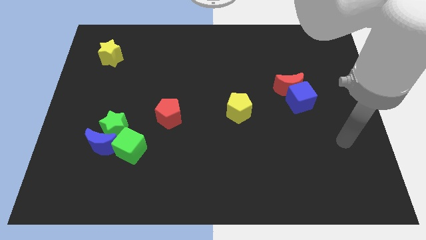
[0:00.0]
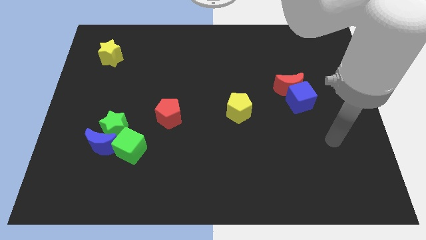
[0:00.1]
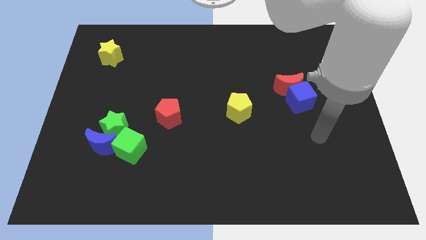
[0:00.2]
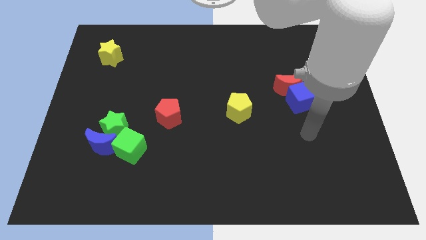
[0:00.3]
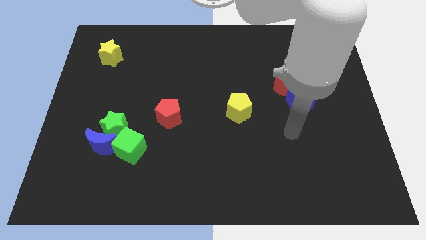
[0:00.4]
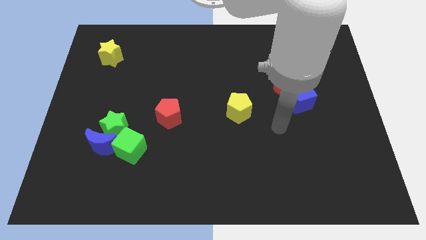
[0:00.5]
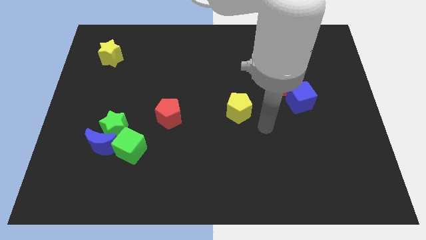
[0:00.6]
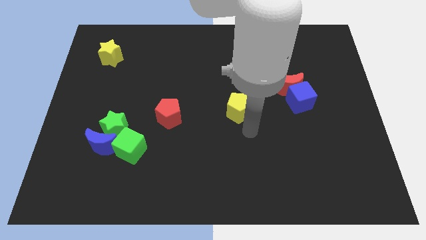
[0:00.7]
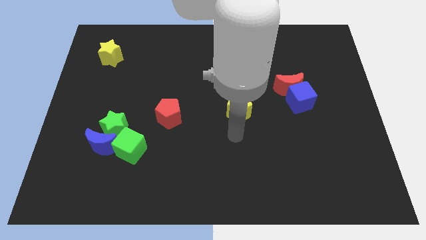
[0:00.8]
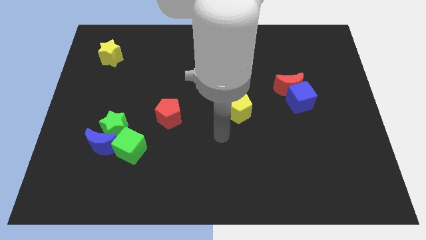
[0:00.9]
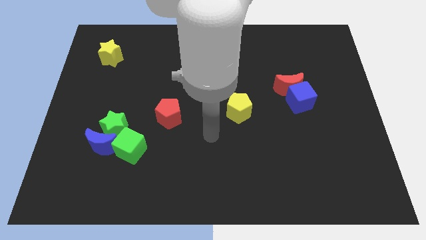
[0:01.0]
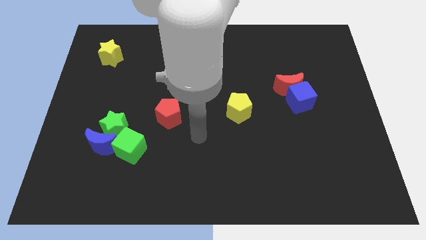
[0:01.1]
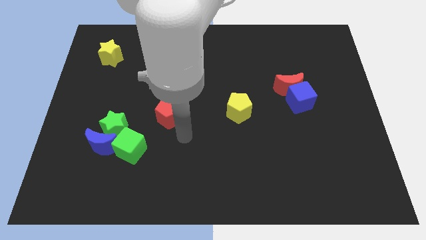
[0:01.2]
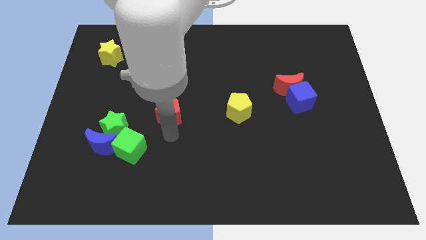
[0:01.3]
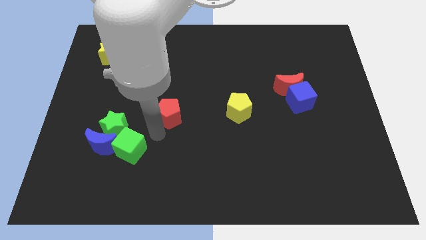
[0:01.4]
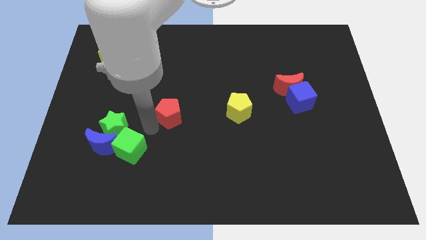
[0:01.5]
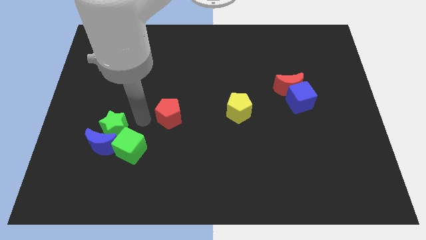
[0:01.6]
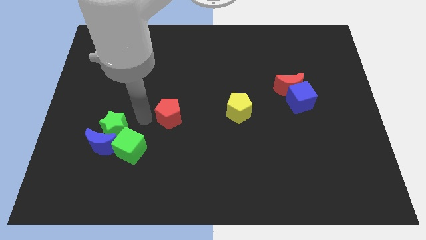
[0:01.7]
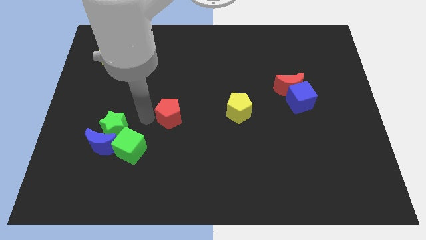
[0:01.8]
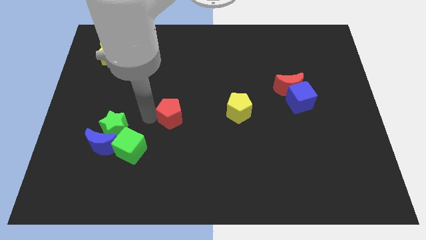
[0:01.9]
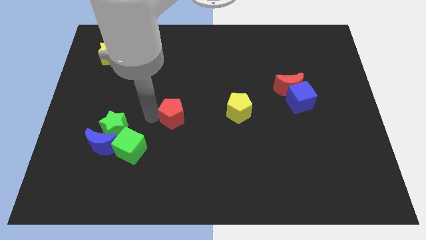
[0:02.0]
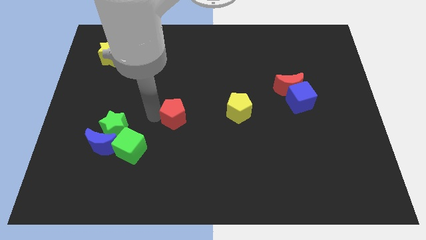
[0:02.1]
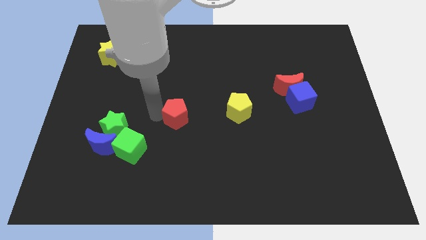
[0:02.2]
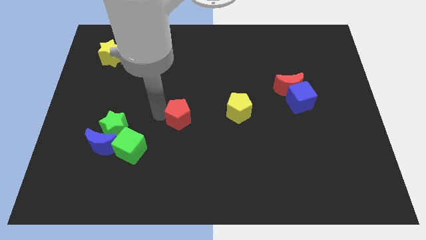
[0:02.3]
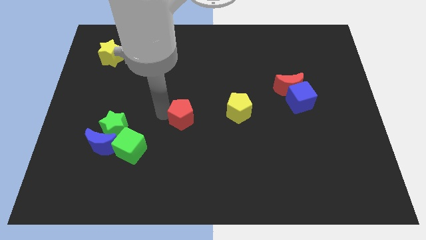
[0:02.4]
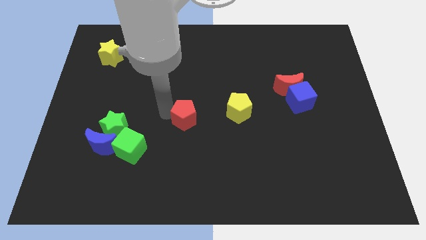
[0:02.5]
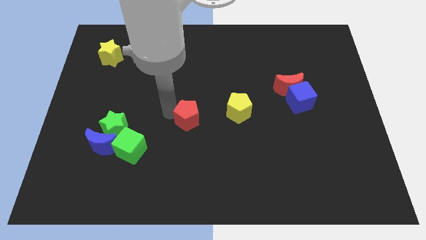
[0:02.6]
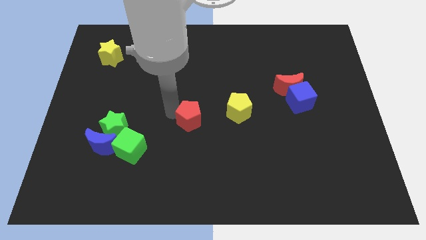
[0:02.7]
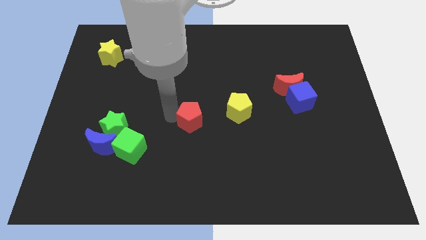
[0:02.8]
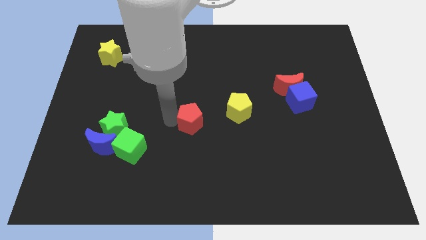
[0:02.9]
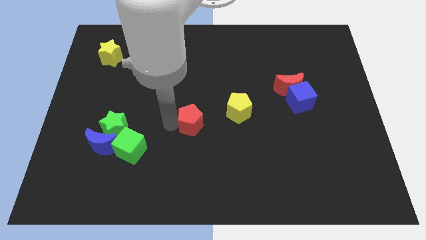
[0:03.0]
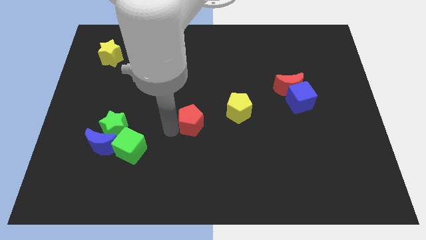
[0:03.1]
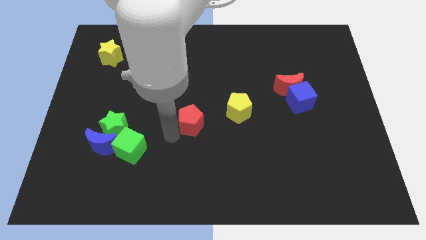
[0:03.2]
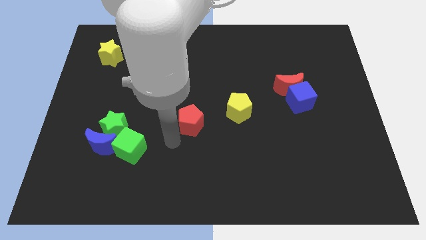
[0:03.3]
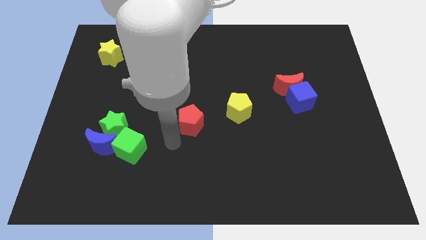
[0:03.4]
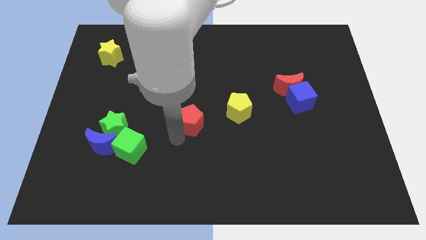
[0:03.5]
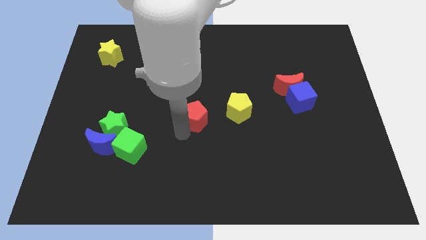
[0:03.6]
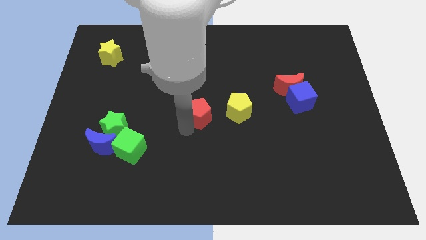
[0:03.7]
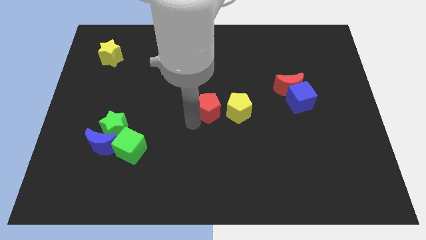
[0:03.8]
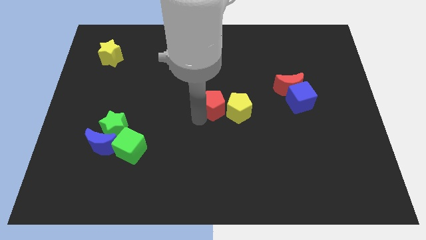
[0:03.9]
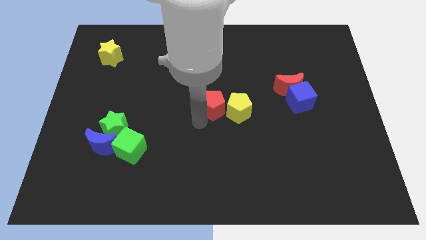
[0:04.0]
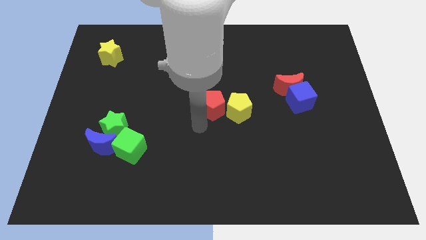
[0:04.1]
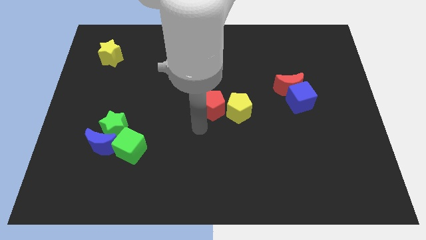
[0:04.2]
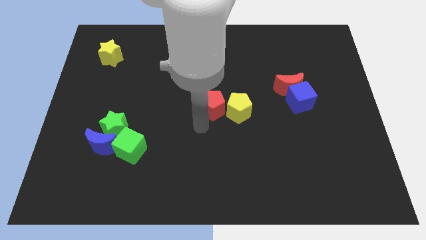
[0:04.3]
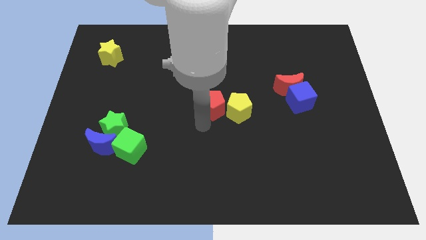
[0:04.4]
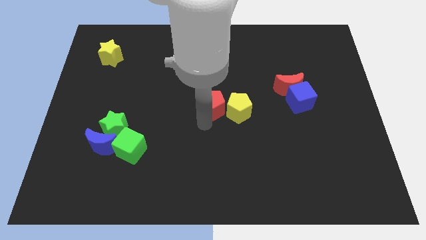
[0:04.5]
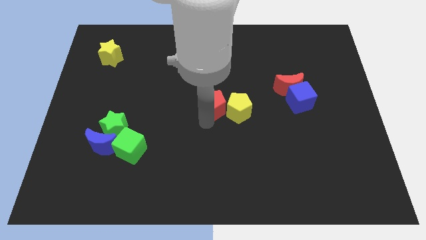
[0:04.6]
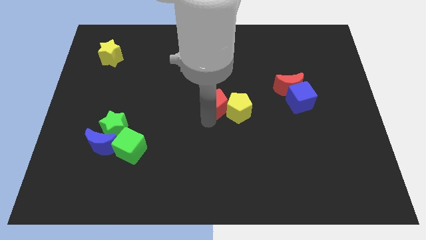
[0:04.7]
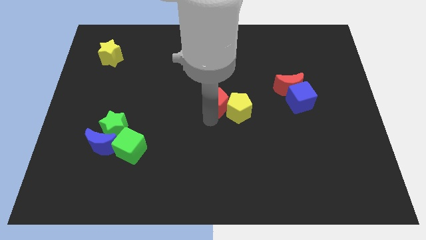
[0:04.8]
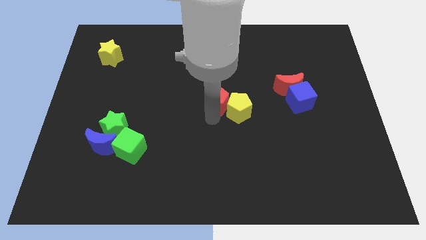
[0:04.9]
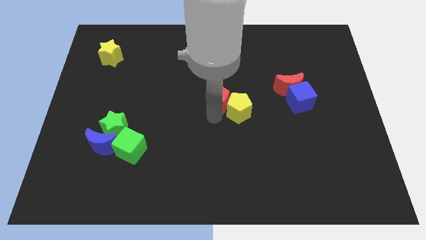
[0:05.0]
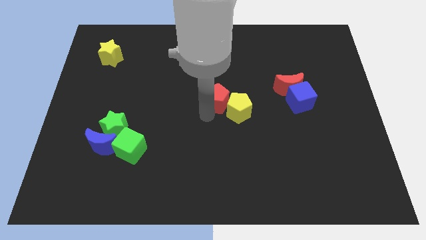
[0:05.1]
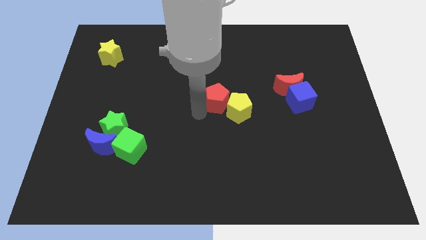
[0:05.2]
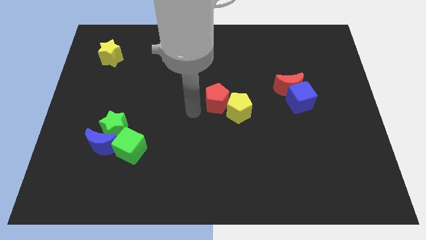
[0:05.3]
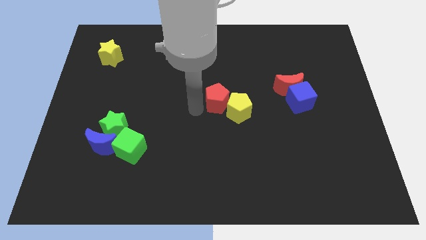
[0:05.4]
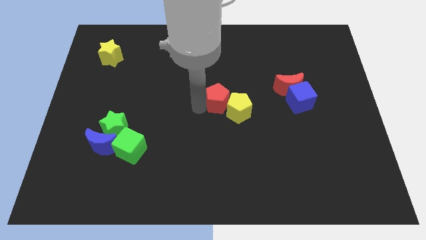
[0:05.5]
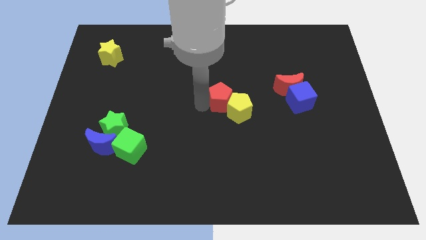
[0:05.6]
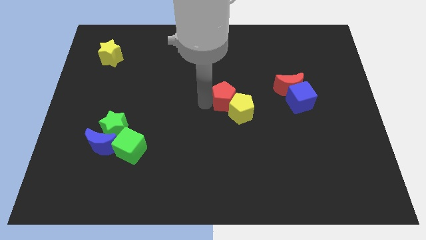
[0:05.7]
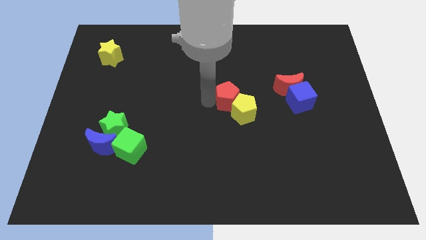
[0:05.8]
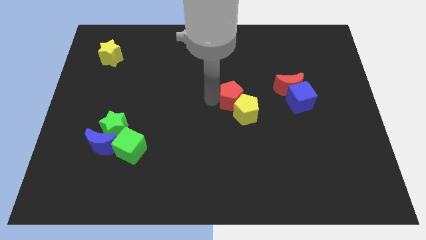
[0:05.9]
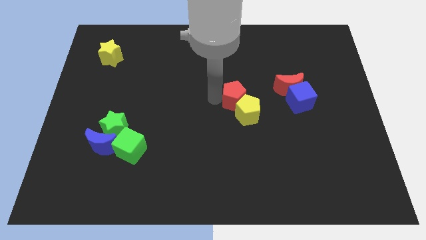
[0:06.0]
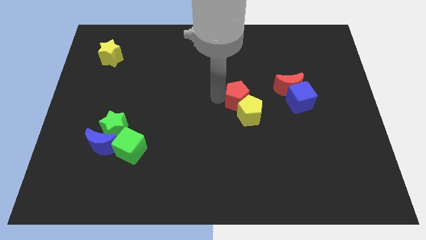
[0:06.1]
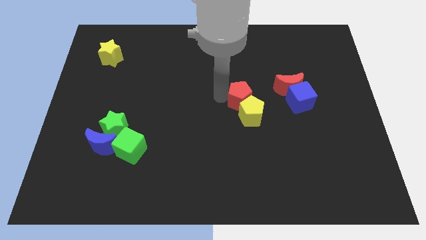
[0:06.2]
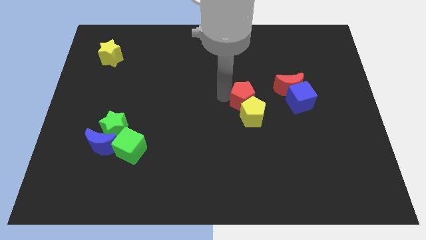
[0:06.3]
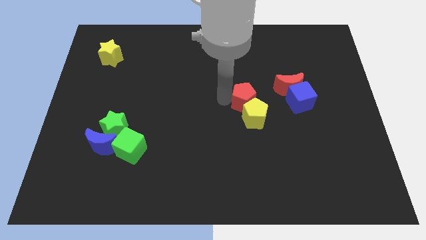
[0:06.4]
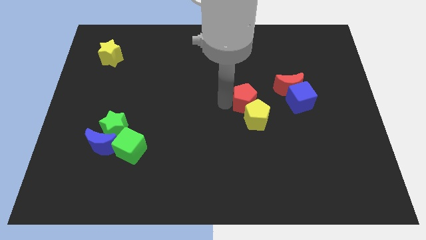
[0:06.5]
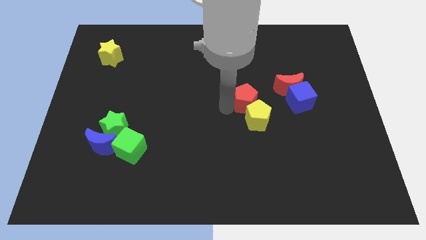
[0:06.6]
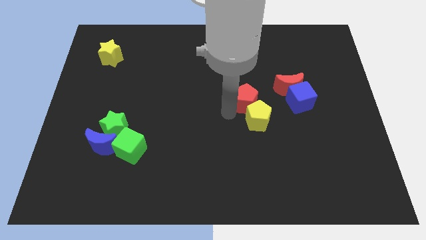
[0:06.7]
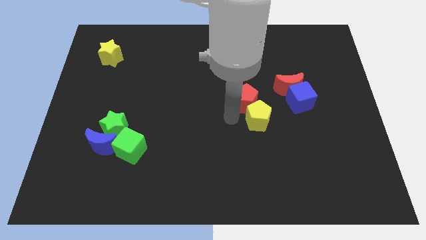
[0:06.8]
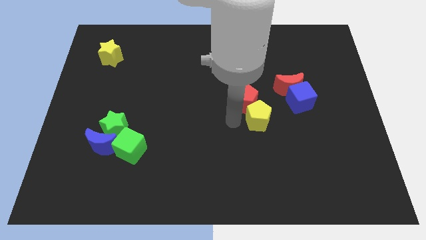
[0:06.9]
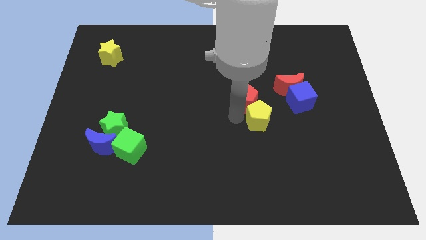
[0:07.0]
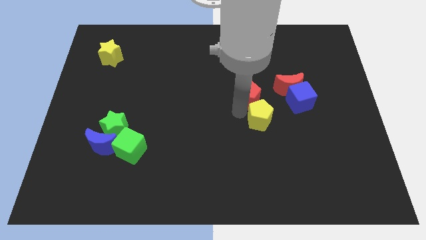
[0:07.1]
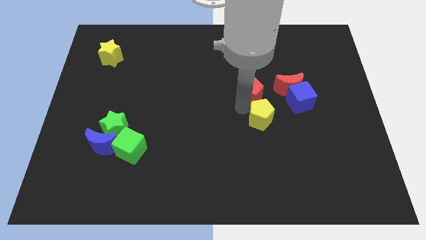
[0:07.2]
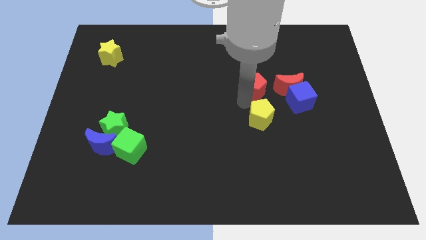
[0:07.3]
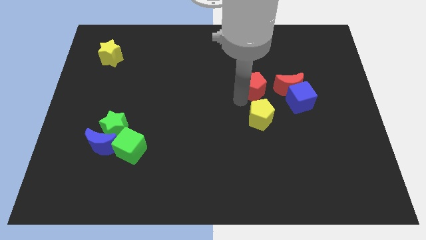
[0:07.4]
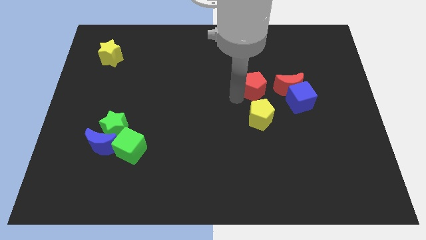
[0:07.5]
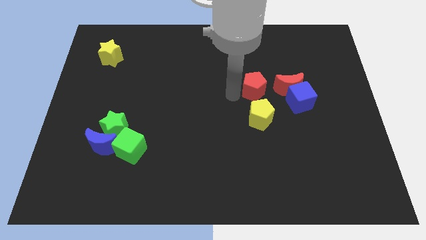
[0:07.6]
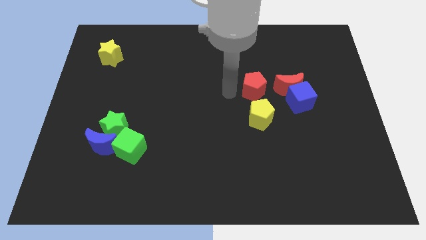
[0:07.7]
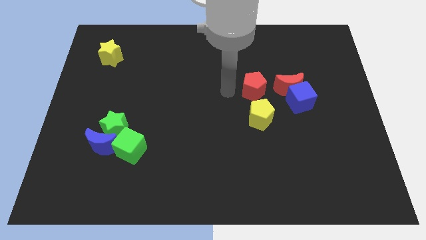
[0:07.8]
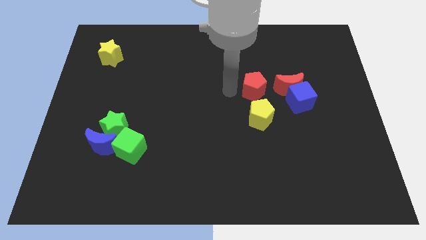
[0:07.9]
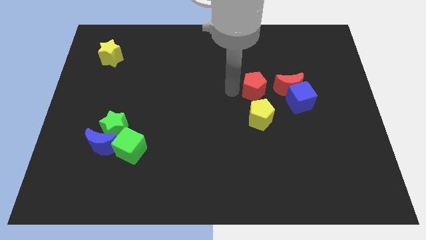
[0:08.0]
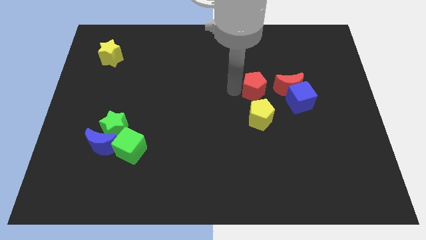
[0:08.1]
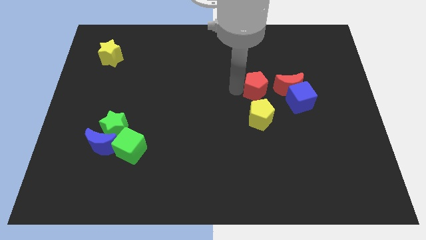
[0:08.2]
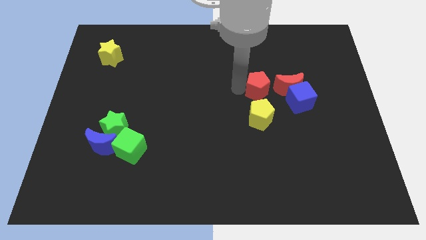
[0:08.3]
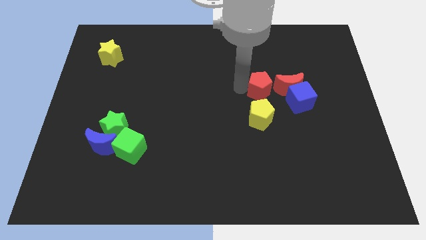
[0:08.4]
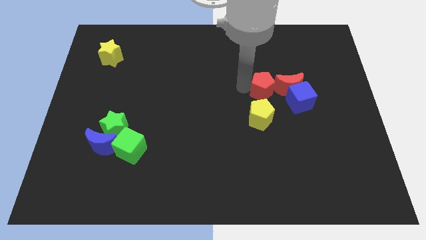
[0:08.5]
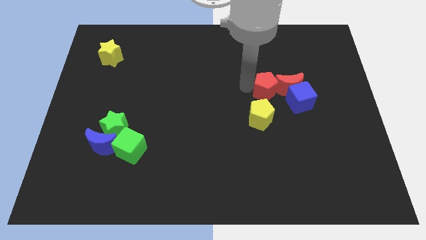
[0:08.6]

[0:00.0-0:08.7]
slide the red pentagon next to the red moon

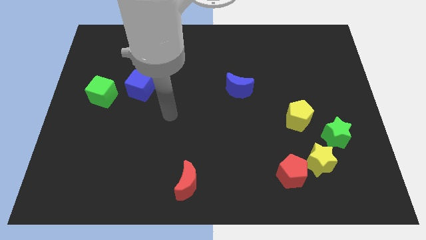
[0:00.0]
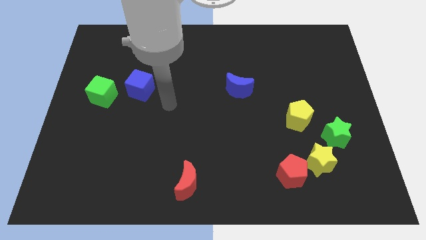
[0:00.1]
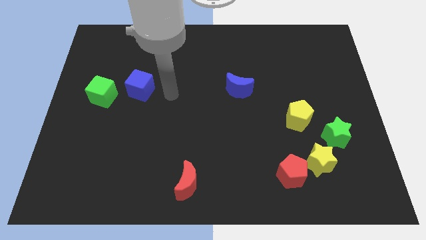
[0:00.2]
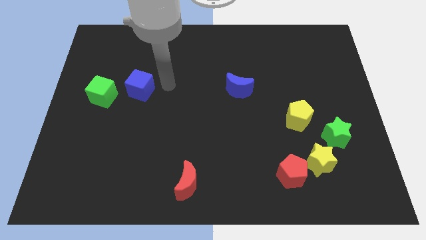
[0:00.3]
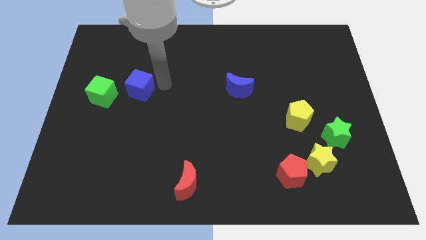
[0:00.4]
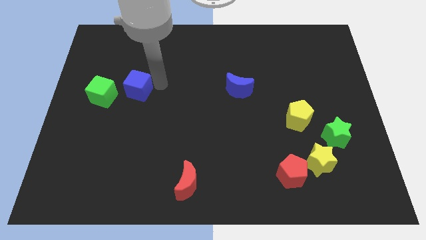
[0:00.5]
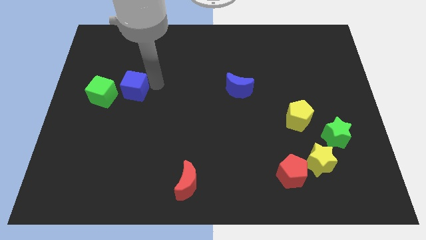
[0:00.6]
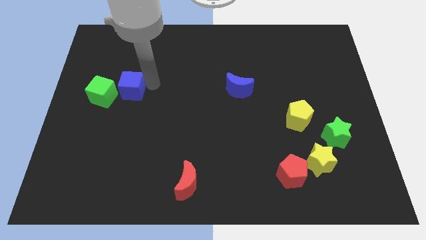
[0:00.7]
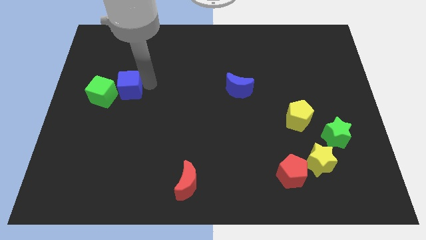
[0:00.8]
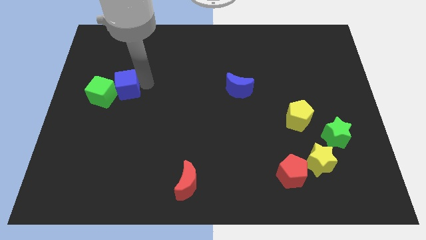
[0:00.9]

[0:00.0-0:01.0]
slide the blue cube towards the green cube
